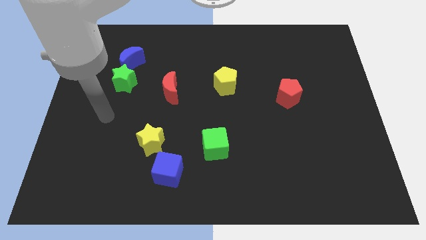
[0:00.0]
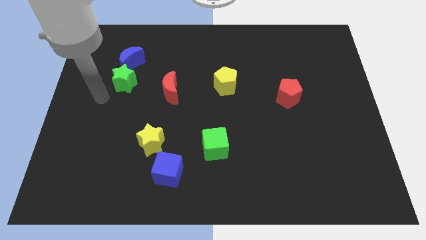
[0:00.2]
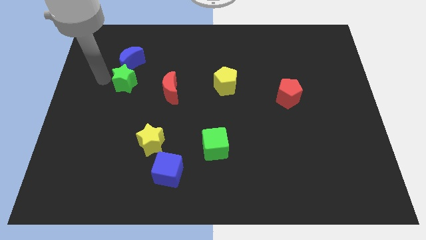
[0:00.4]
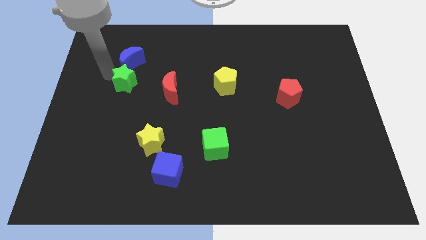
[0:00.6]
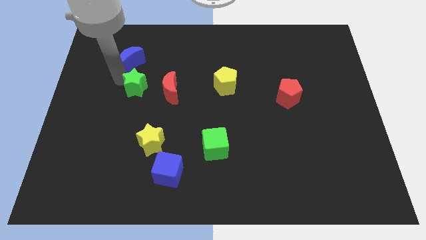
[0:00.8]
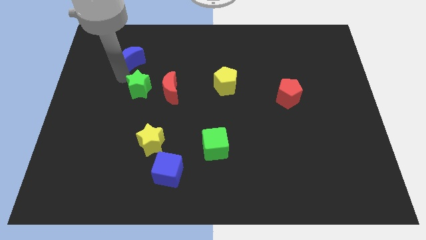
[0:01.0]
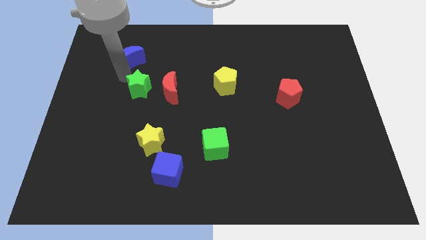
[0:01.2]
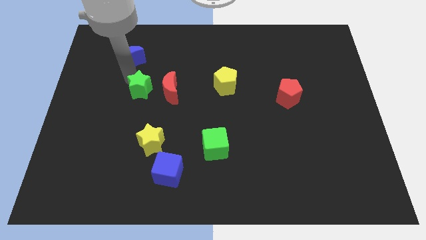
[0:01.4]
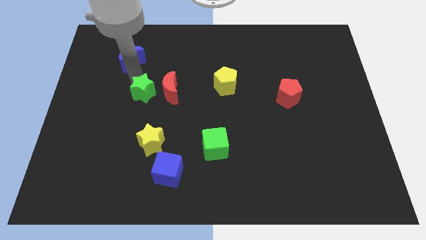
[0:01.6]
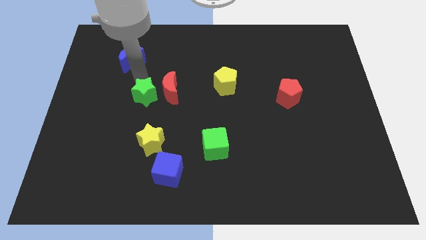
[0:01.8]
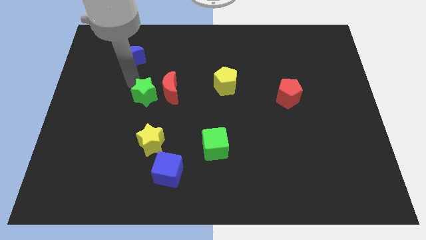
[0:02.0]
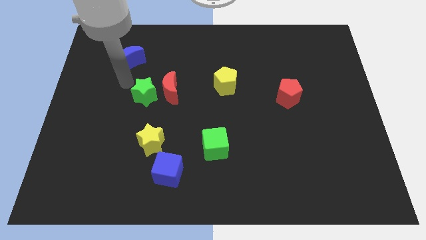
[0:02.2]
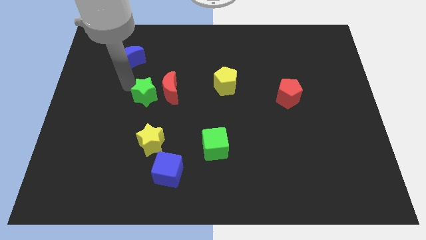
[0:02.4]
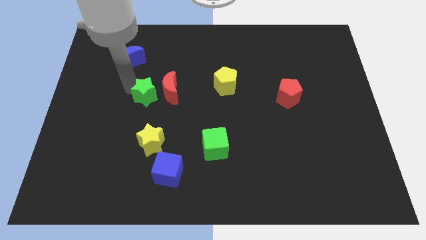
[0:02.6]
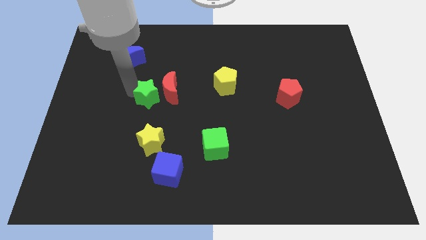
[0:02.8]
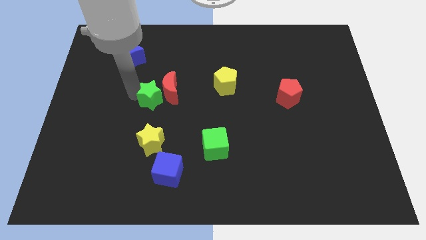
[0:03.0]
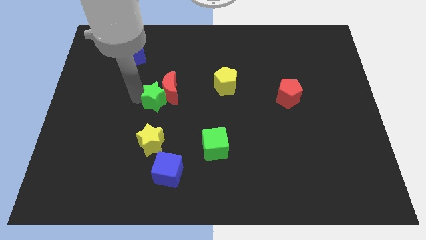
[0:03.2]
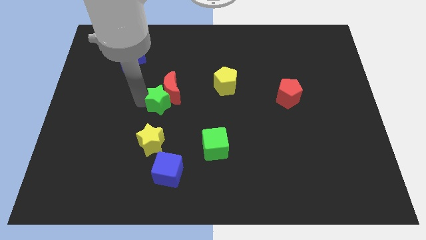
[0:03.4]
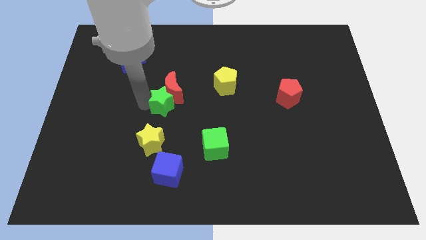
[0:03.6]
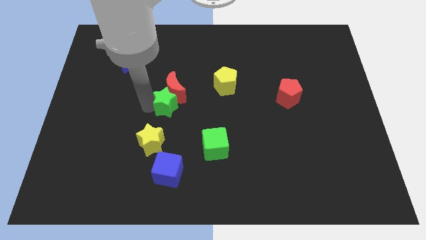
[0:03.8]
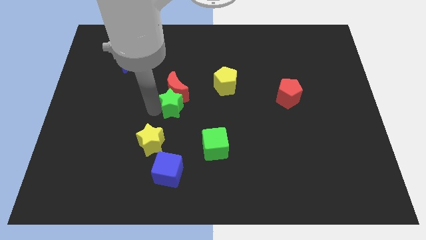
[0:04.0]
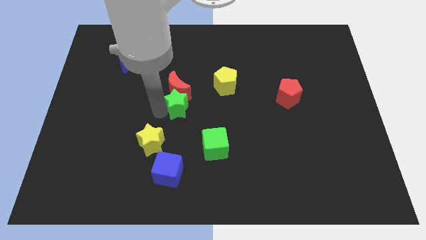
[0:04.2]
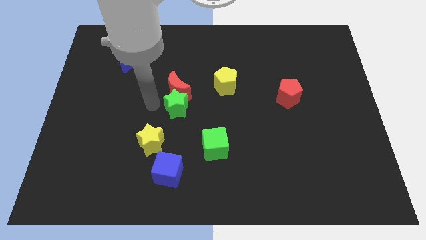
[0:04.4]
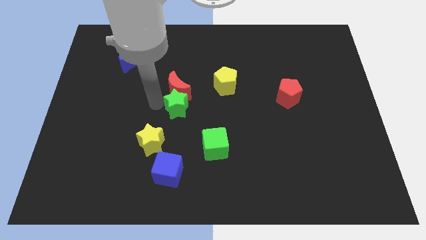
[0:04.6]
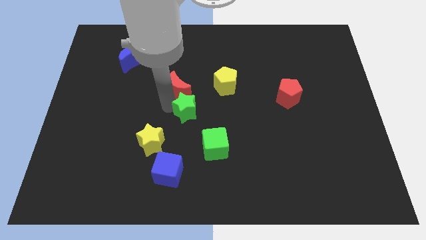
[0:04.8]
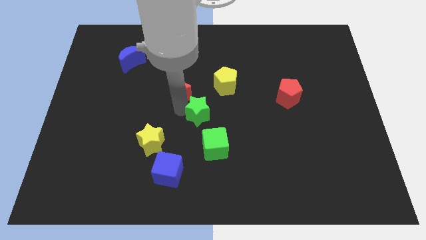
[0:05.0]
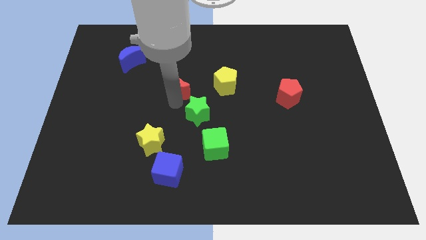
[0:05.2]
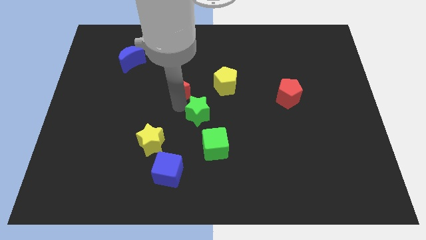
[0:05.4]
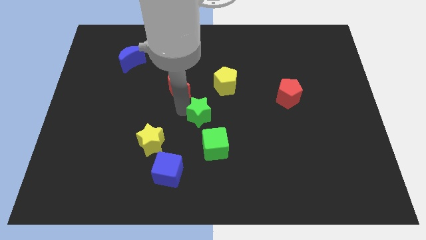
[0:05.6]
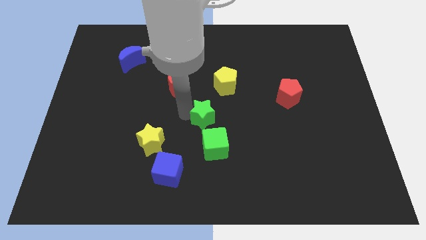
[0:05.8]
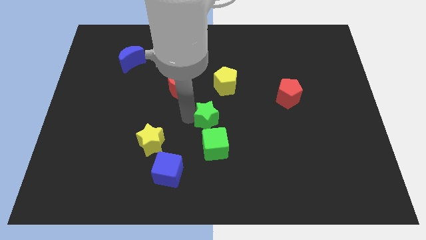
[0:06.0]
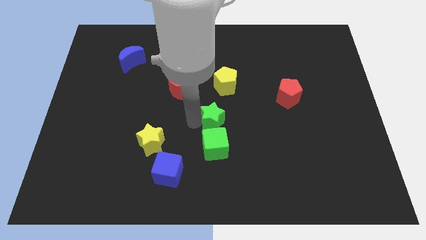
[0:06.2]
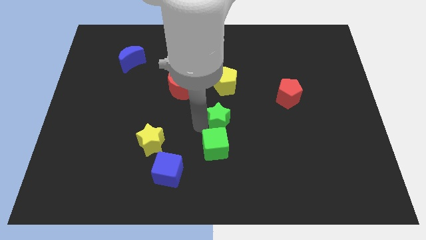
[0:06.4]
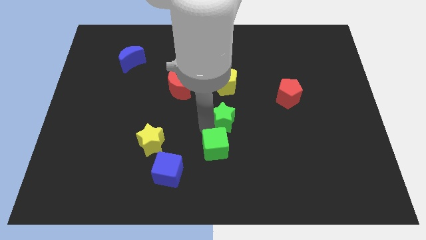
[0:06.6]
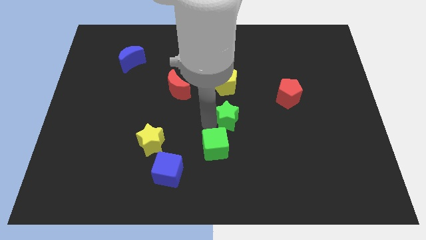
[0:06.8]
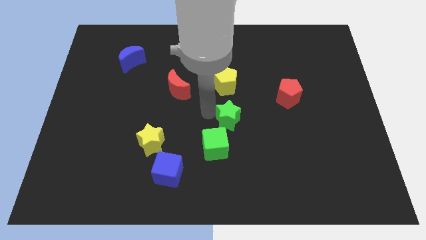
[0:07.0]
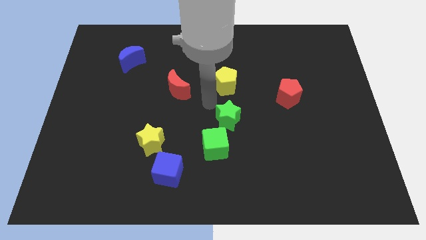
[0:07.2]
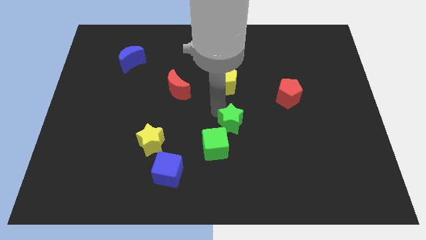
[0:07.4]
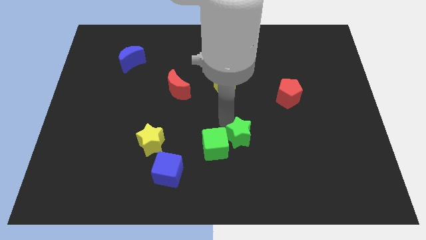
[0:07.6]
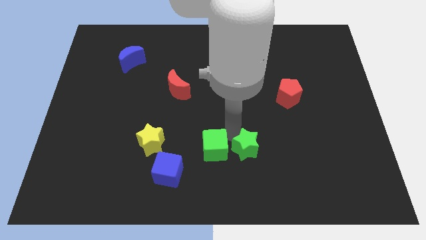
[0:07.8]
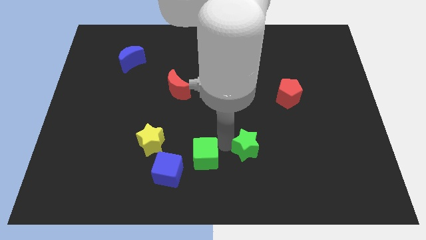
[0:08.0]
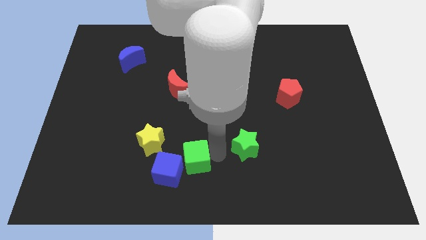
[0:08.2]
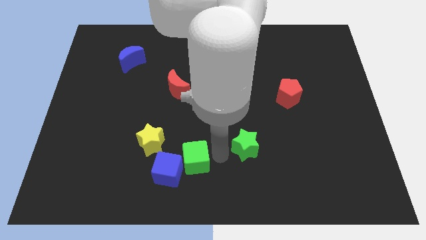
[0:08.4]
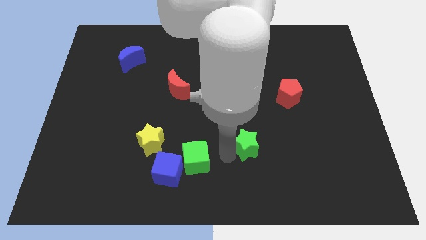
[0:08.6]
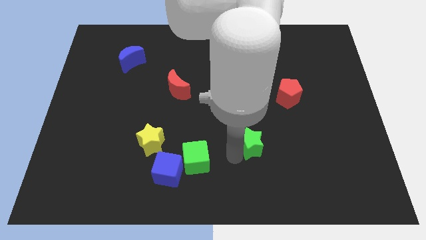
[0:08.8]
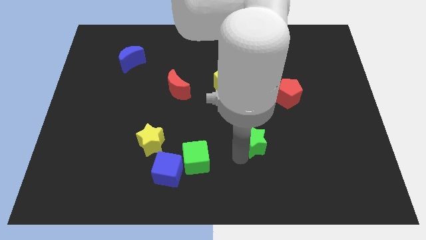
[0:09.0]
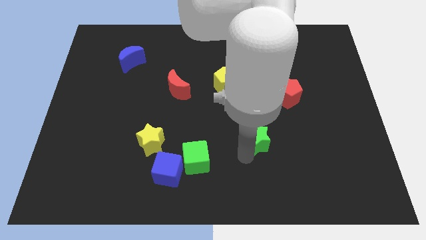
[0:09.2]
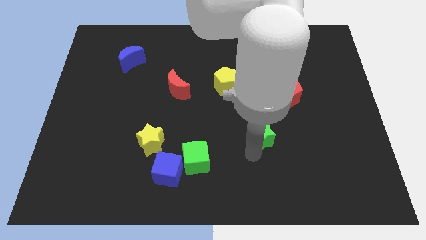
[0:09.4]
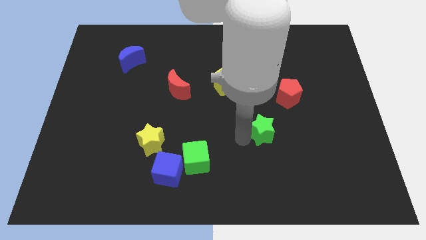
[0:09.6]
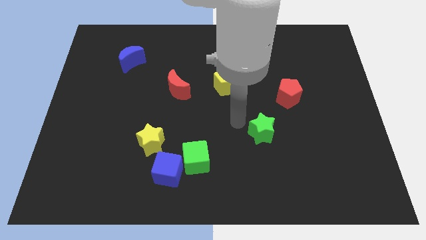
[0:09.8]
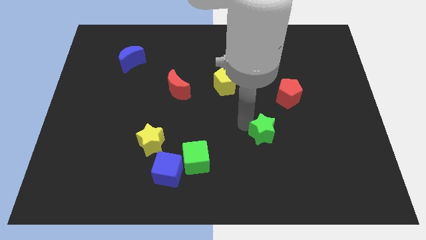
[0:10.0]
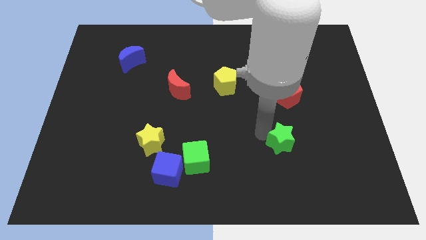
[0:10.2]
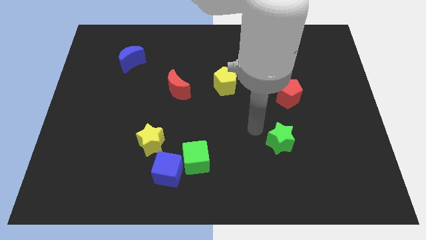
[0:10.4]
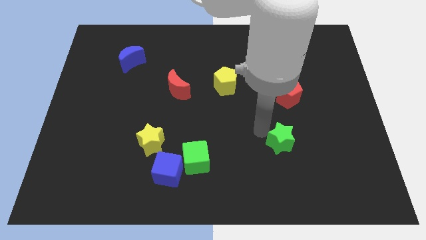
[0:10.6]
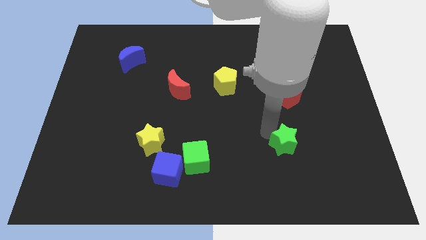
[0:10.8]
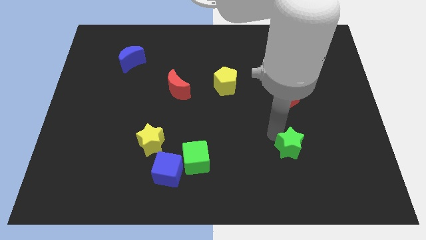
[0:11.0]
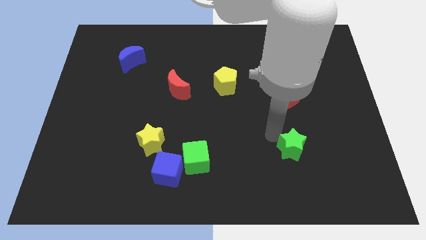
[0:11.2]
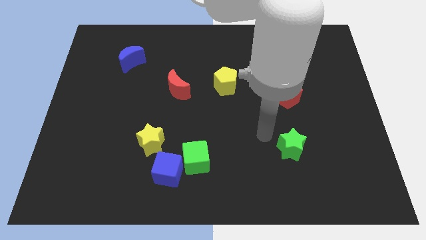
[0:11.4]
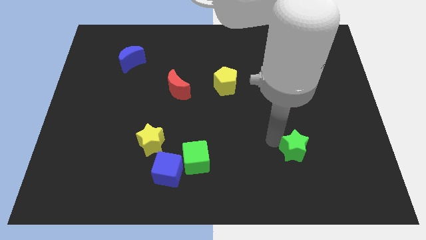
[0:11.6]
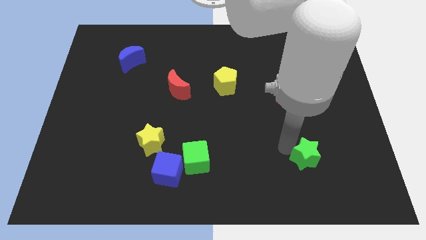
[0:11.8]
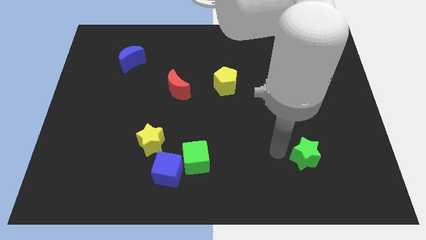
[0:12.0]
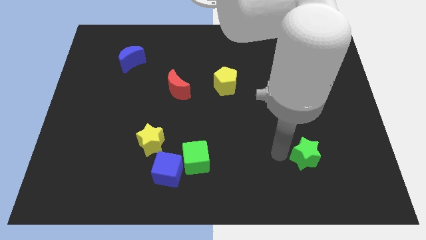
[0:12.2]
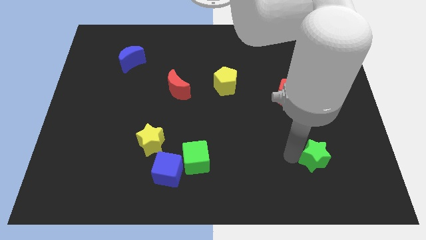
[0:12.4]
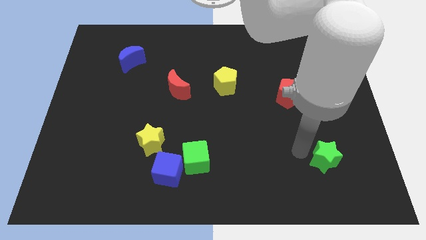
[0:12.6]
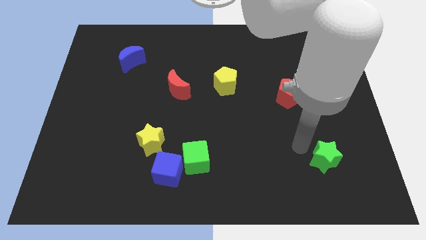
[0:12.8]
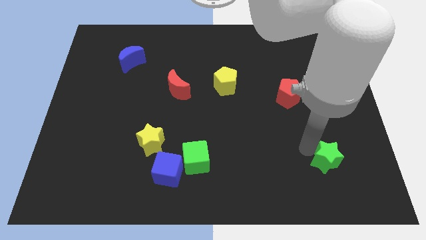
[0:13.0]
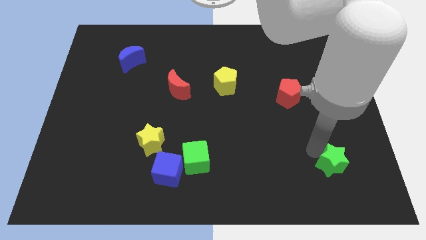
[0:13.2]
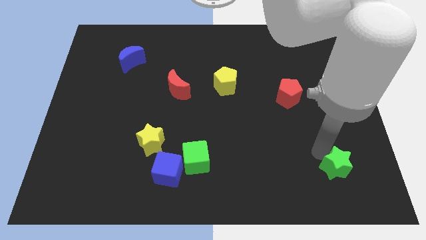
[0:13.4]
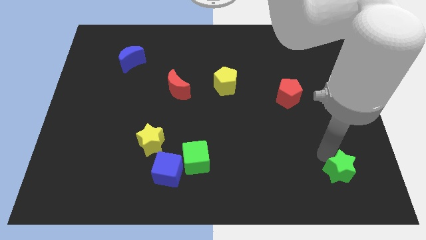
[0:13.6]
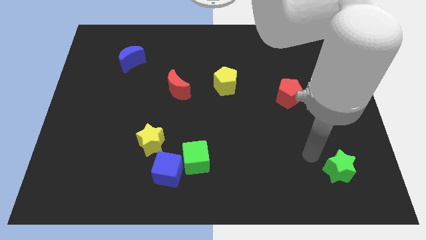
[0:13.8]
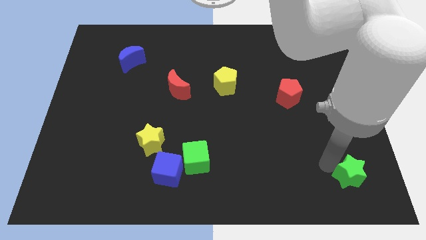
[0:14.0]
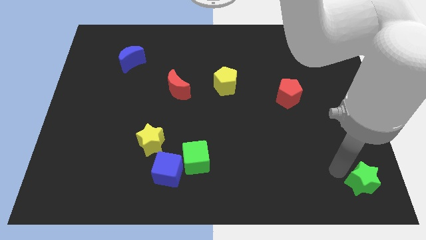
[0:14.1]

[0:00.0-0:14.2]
push the green star to the bottom right
